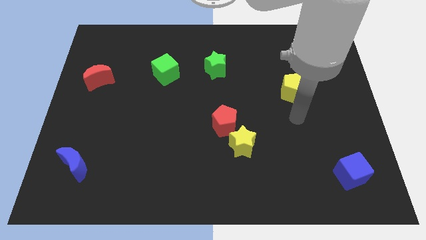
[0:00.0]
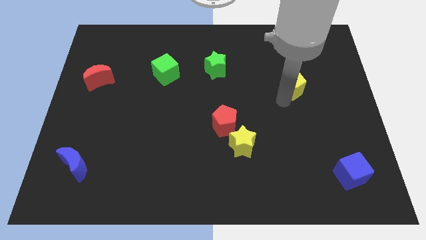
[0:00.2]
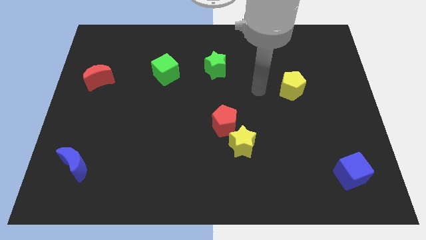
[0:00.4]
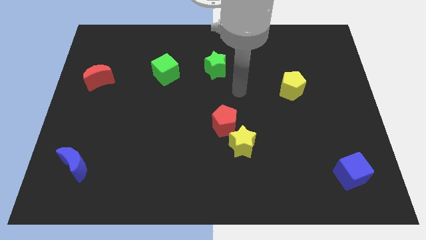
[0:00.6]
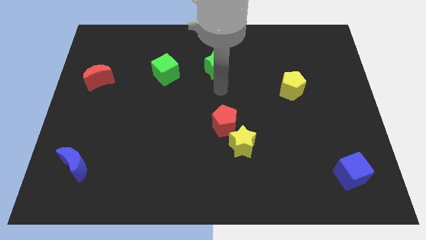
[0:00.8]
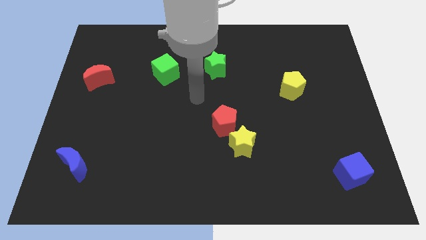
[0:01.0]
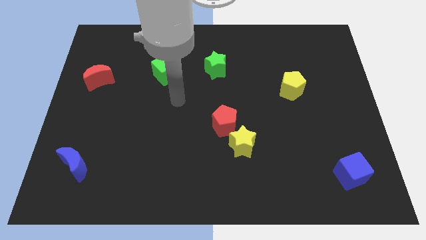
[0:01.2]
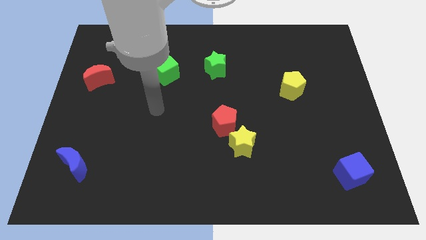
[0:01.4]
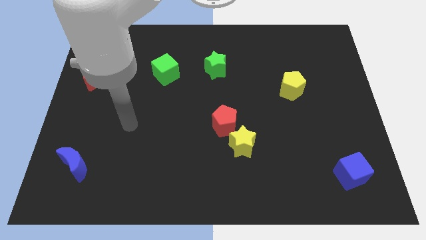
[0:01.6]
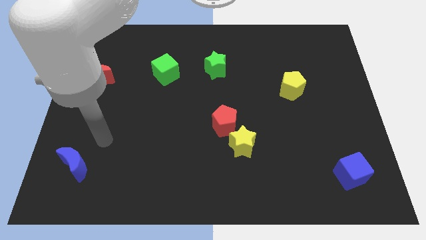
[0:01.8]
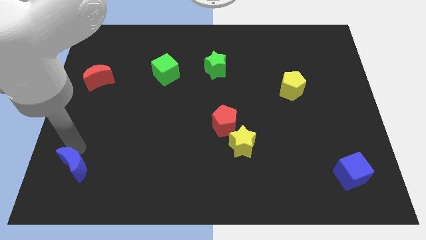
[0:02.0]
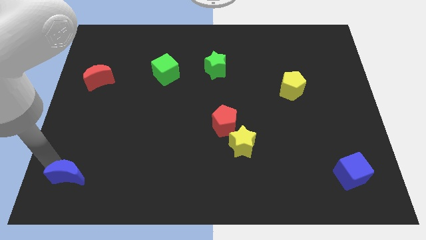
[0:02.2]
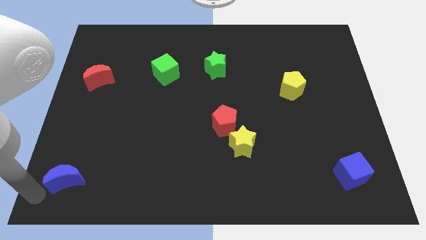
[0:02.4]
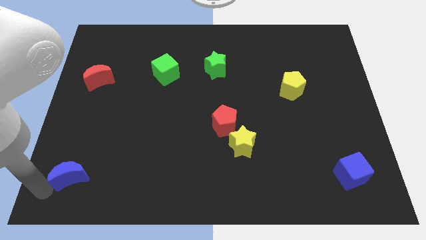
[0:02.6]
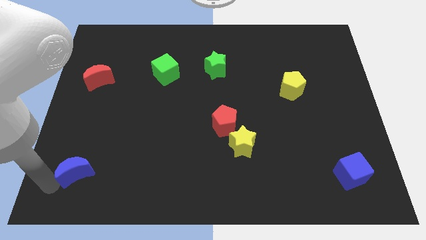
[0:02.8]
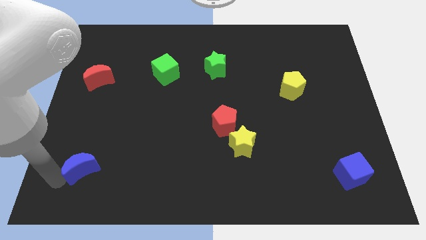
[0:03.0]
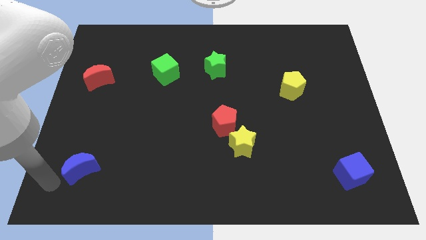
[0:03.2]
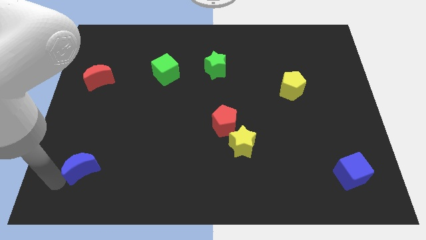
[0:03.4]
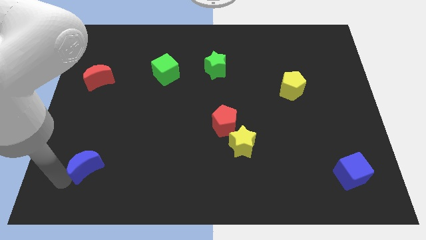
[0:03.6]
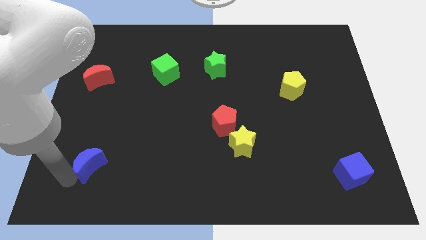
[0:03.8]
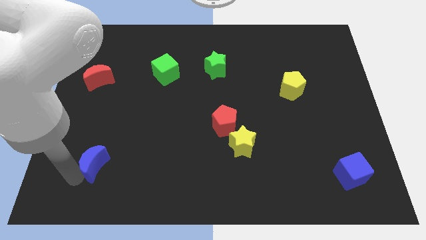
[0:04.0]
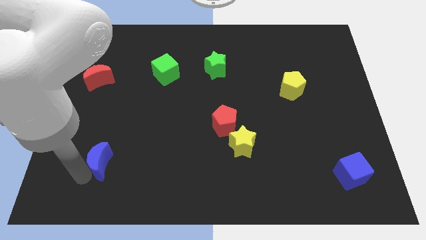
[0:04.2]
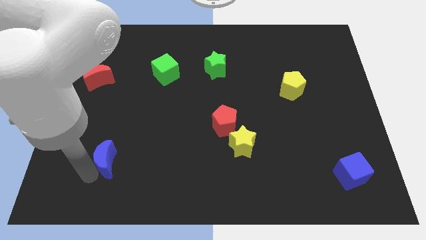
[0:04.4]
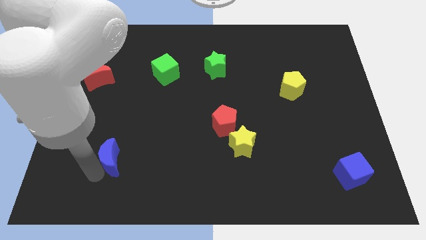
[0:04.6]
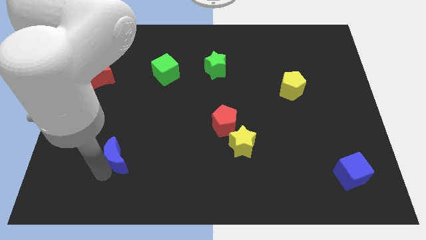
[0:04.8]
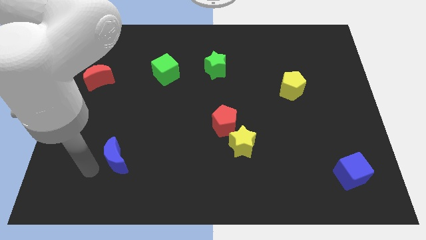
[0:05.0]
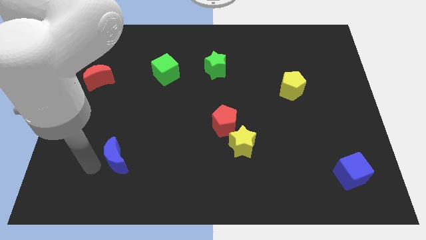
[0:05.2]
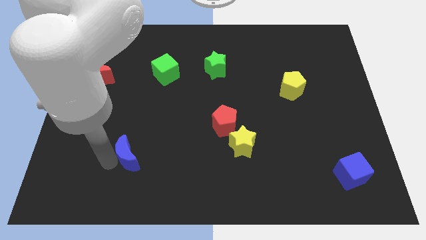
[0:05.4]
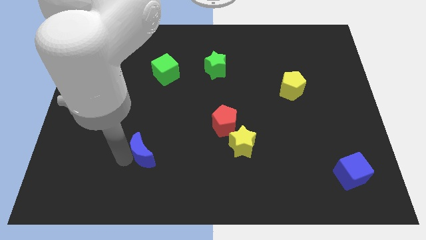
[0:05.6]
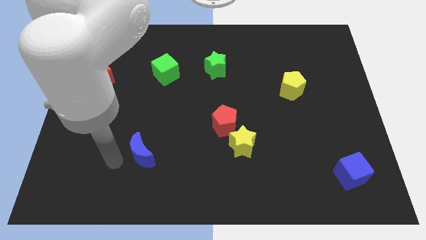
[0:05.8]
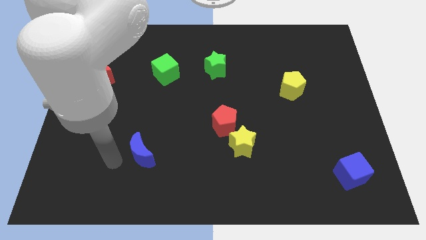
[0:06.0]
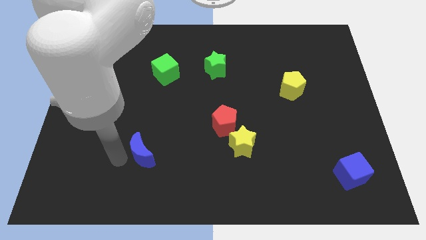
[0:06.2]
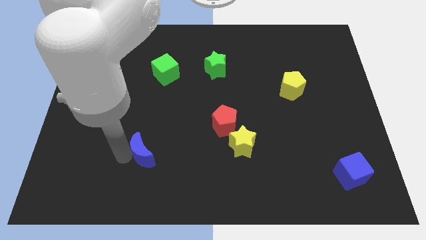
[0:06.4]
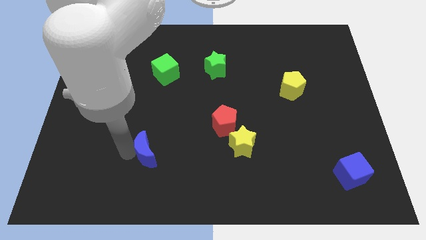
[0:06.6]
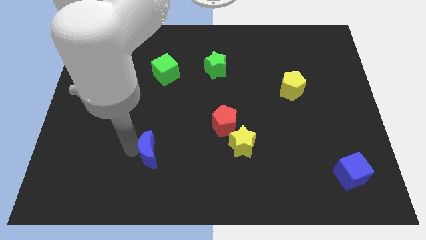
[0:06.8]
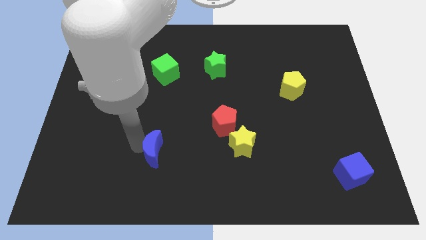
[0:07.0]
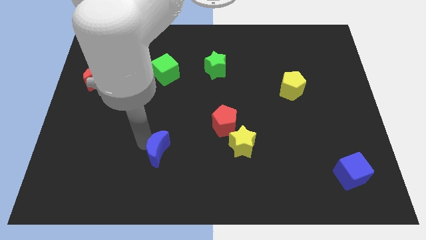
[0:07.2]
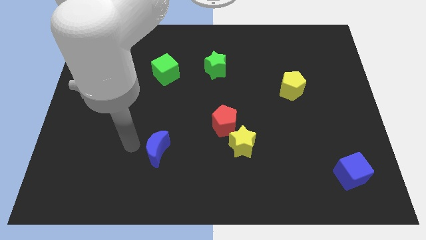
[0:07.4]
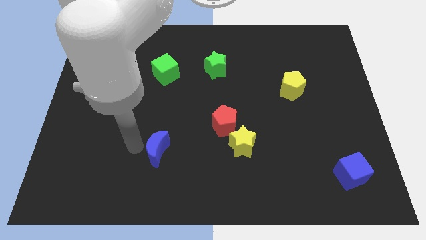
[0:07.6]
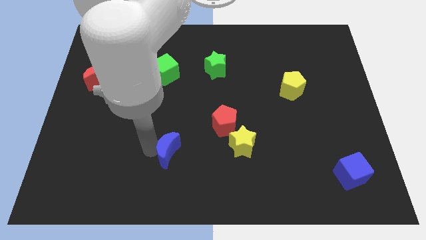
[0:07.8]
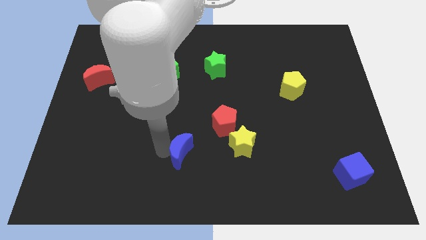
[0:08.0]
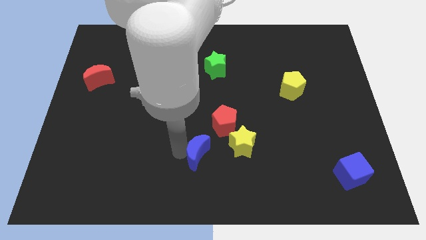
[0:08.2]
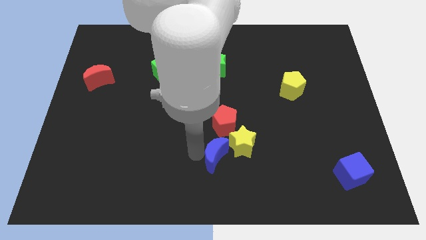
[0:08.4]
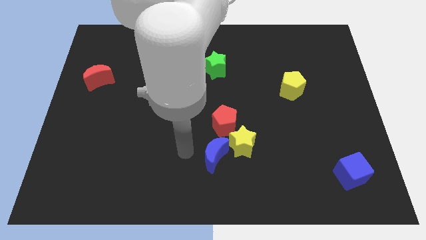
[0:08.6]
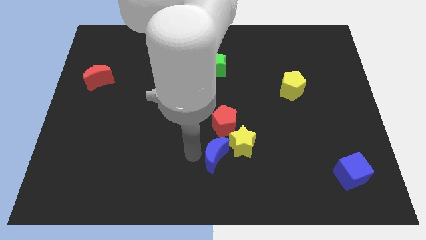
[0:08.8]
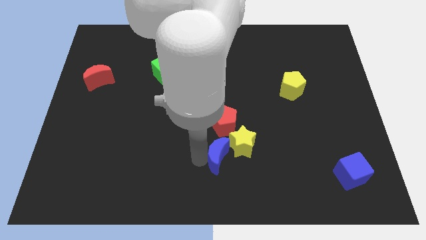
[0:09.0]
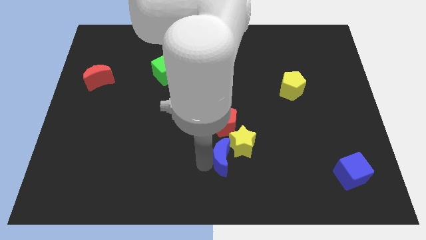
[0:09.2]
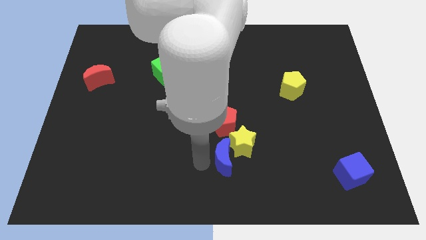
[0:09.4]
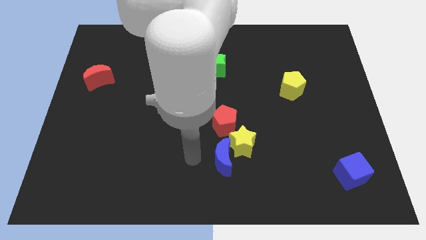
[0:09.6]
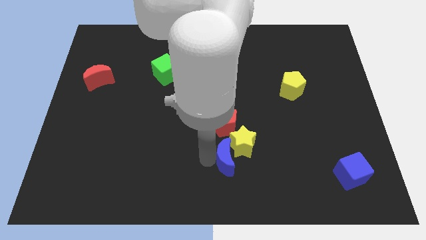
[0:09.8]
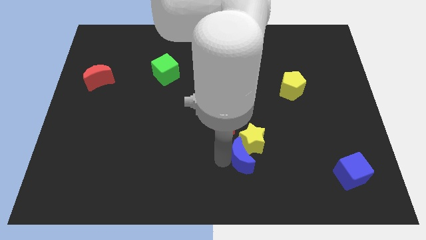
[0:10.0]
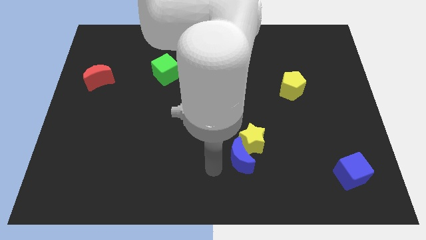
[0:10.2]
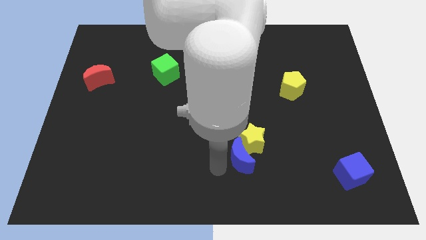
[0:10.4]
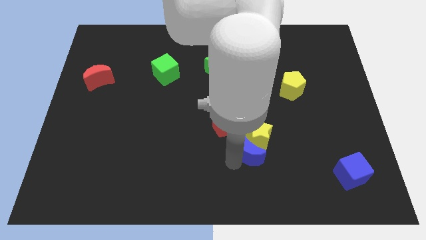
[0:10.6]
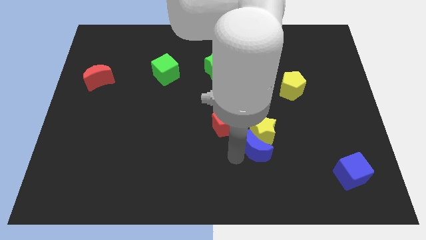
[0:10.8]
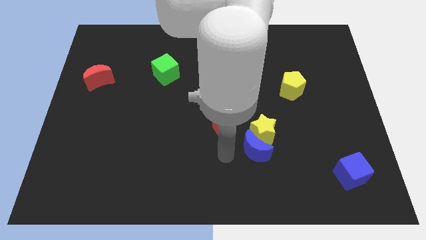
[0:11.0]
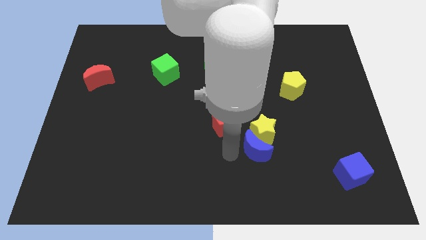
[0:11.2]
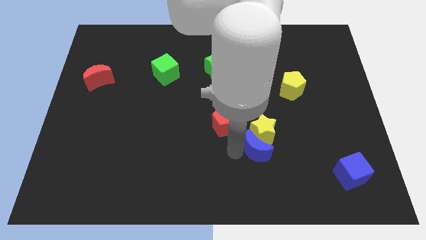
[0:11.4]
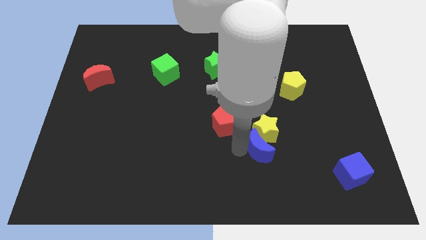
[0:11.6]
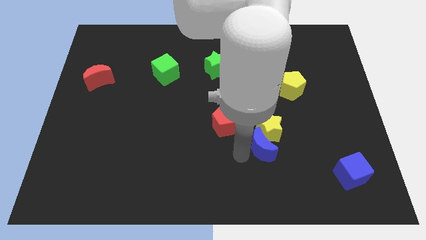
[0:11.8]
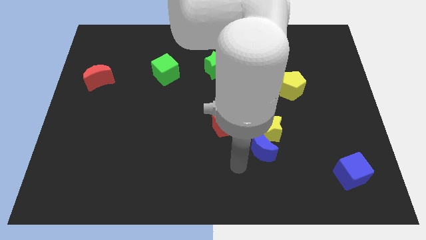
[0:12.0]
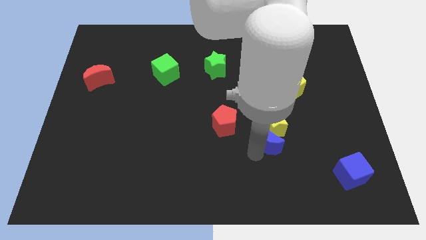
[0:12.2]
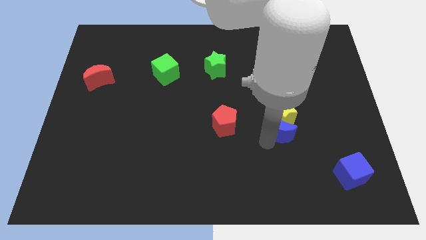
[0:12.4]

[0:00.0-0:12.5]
slide the blue moon to the bottom side of the yellow pentagon

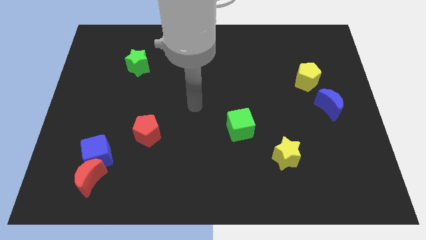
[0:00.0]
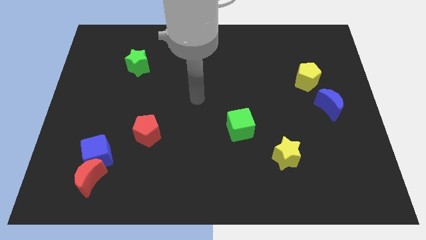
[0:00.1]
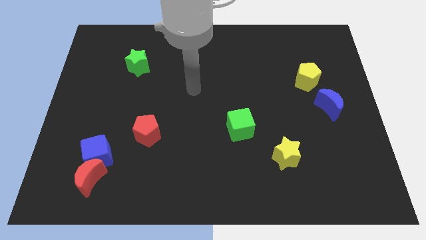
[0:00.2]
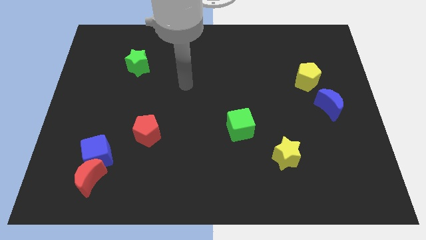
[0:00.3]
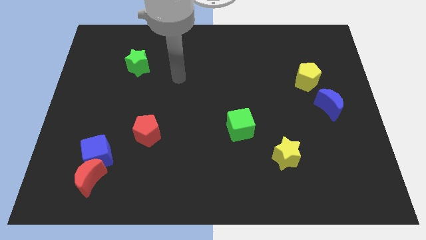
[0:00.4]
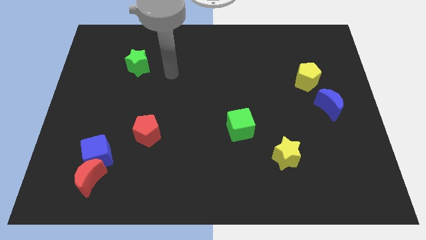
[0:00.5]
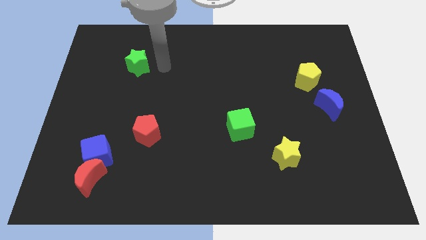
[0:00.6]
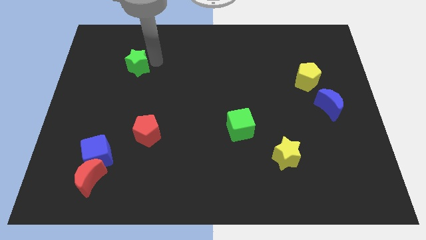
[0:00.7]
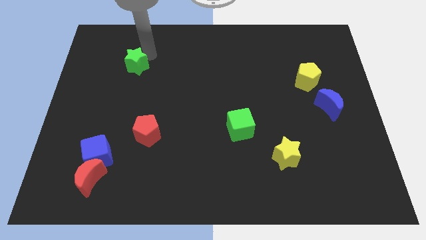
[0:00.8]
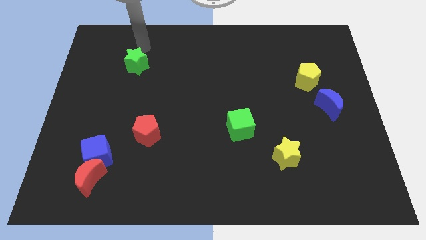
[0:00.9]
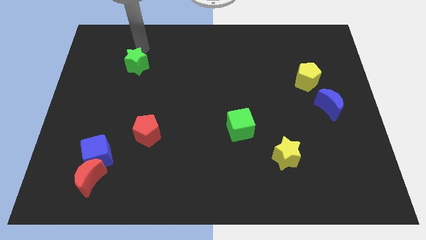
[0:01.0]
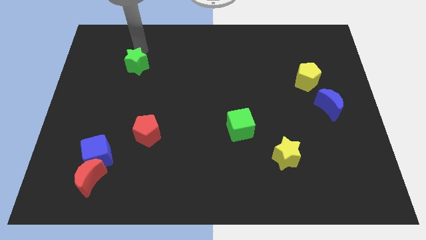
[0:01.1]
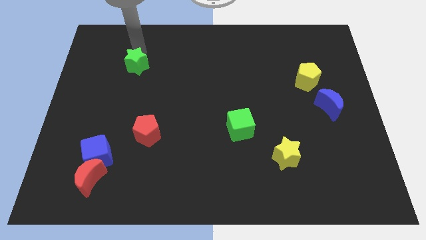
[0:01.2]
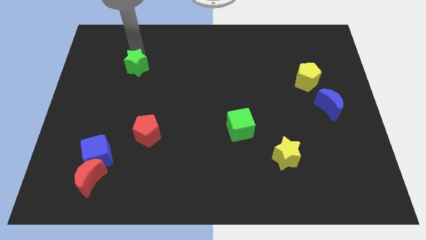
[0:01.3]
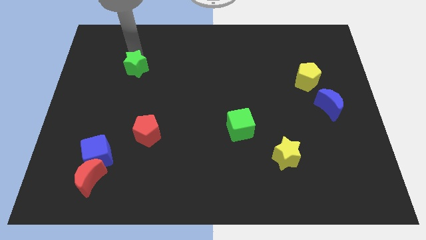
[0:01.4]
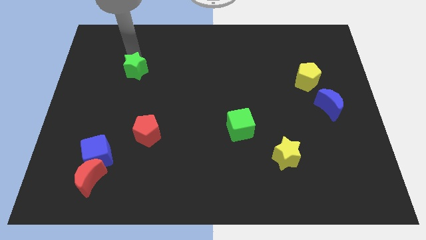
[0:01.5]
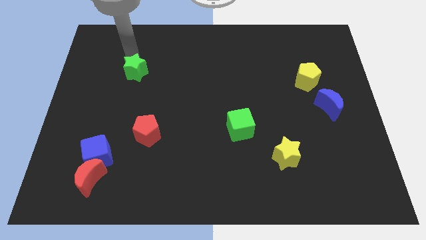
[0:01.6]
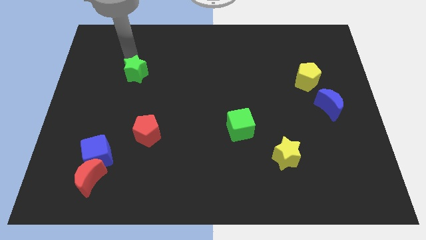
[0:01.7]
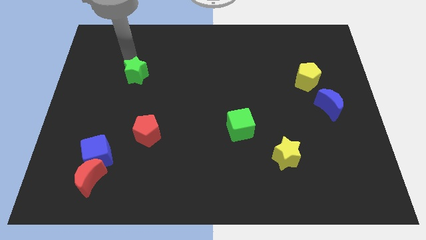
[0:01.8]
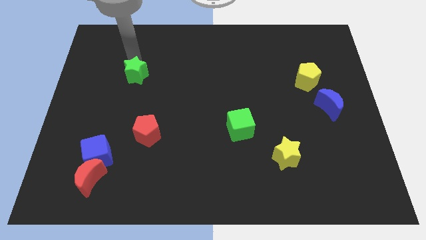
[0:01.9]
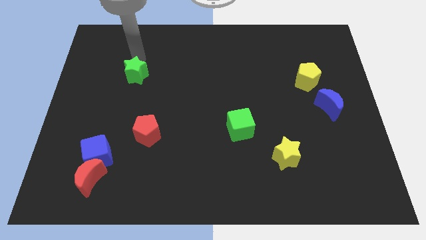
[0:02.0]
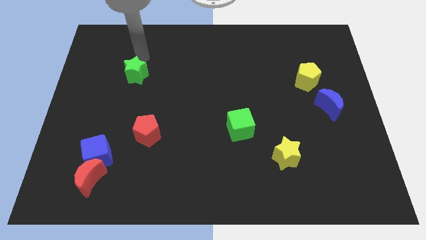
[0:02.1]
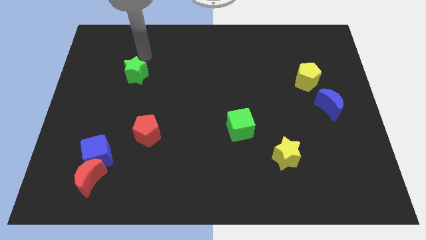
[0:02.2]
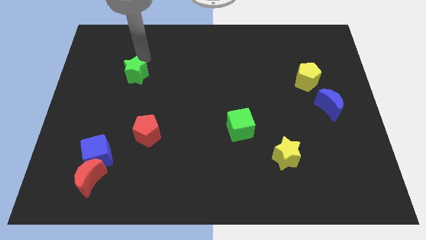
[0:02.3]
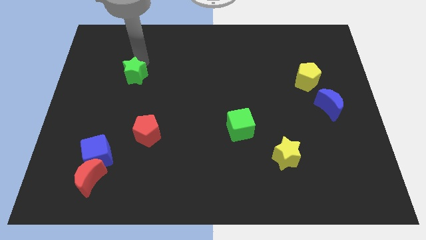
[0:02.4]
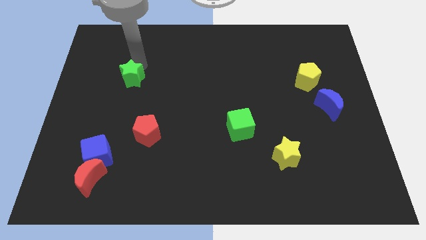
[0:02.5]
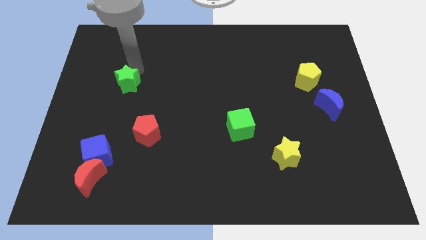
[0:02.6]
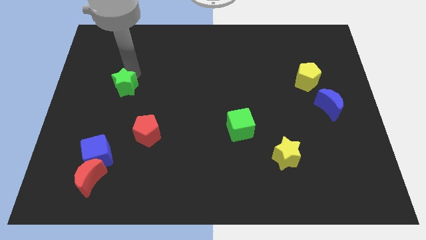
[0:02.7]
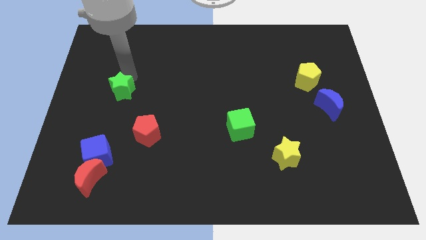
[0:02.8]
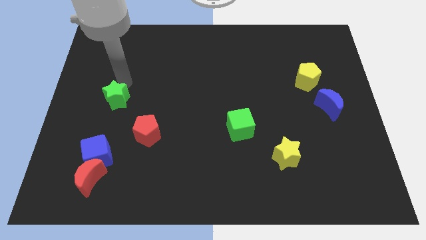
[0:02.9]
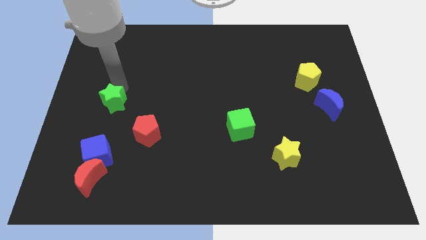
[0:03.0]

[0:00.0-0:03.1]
put the green star diagonally up and to the left of the red pentagon
